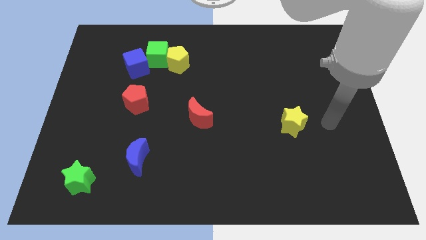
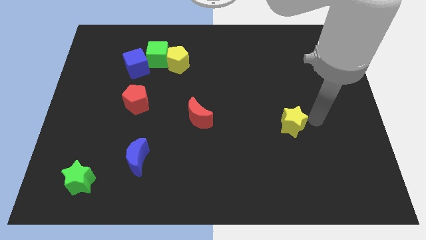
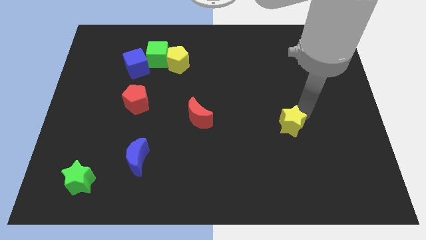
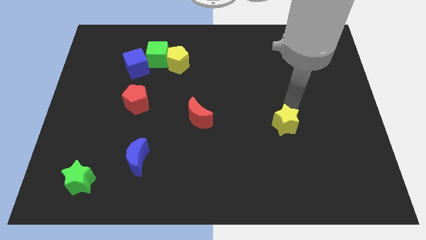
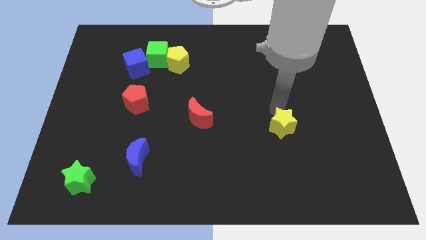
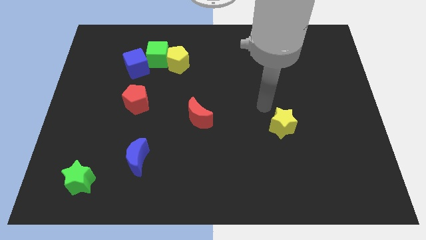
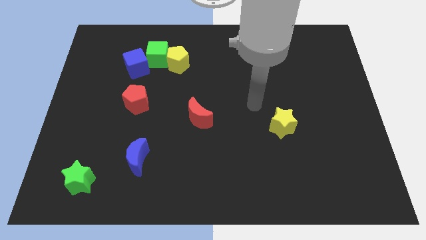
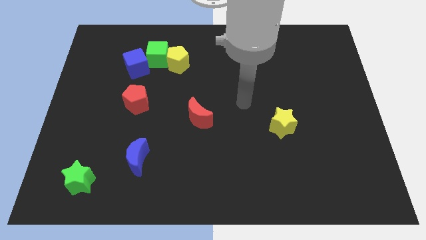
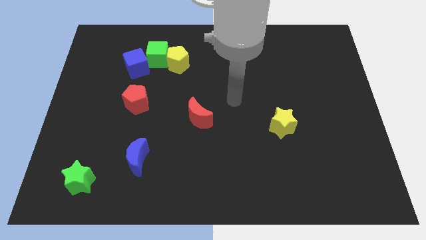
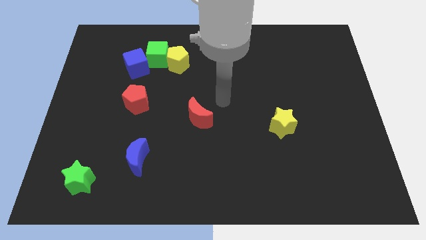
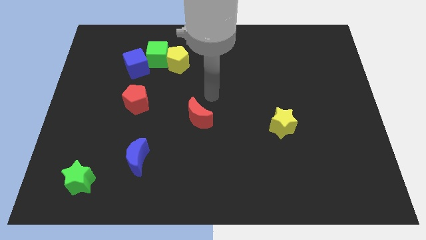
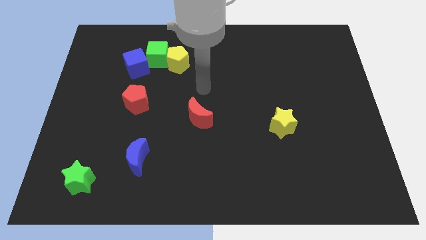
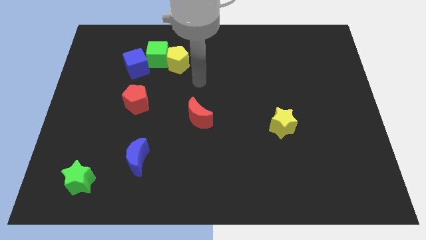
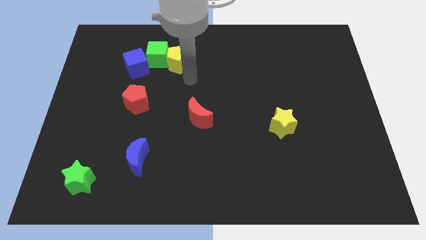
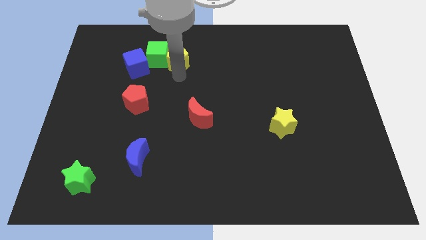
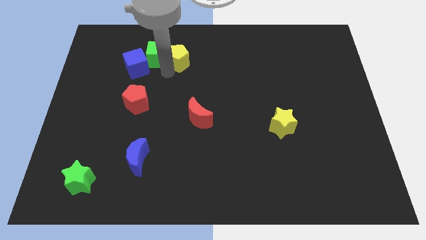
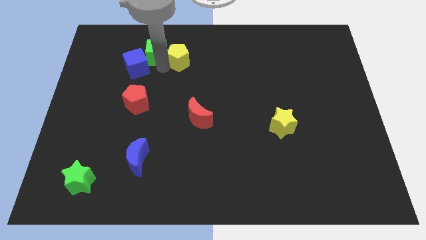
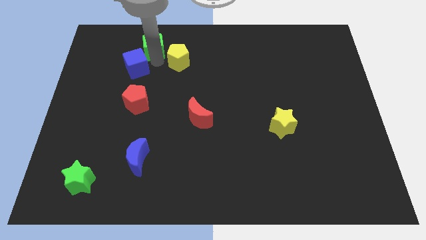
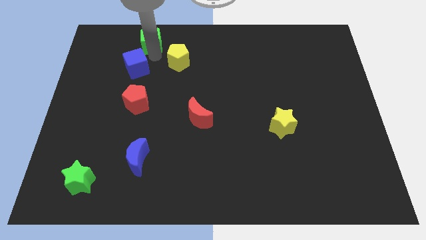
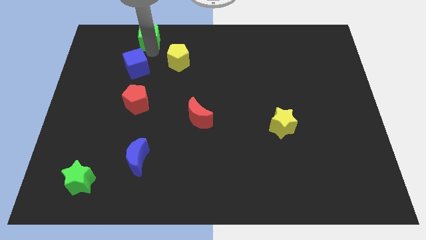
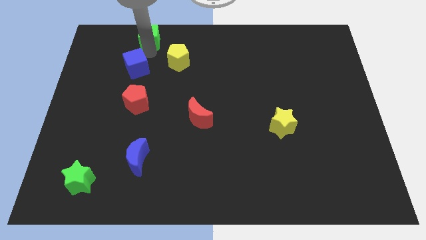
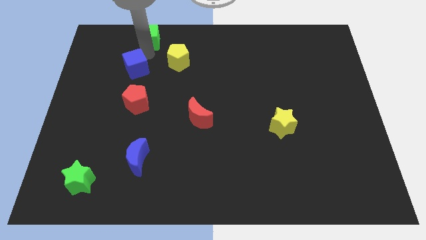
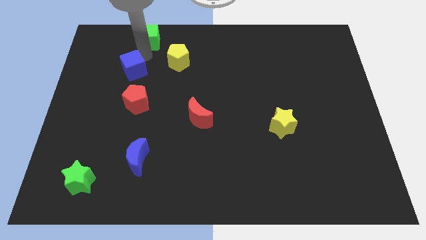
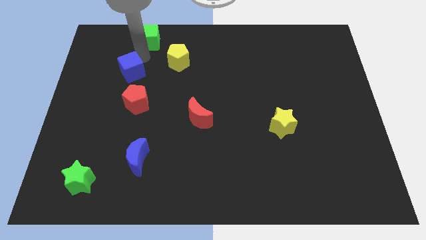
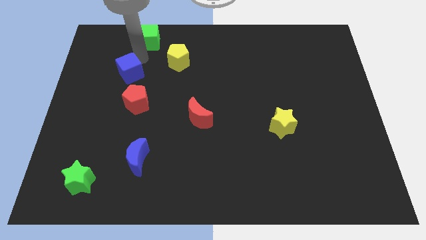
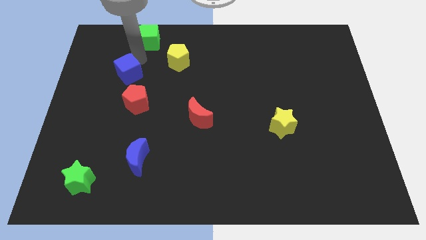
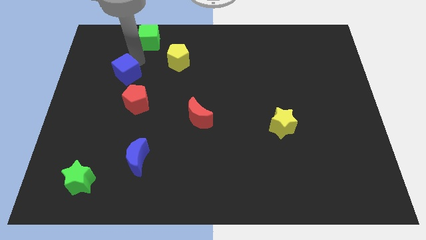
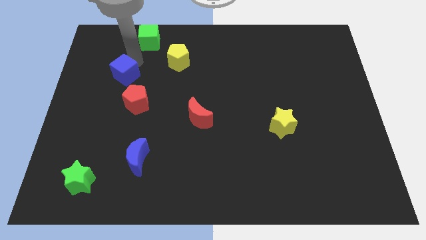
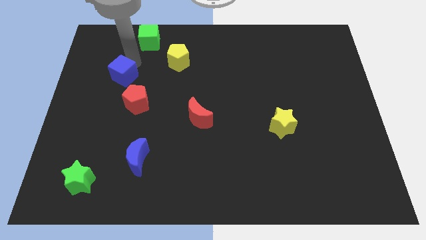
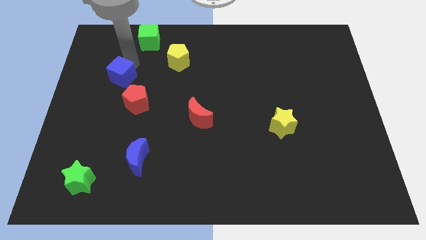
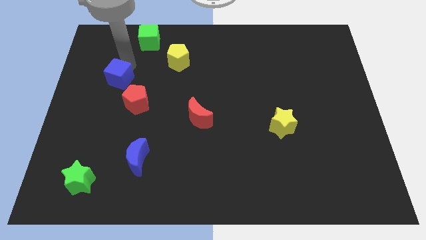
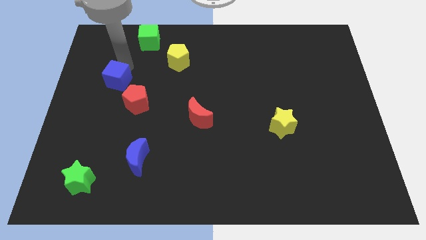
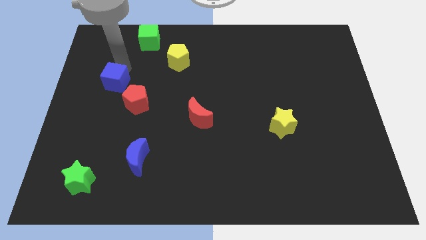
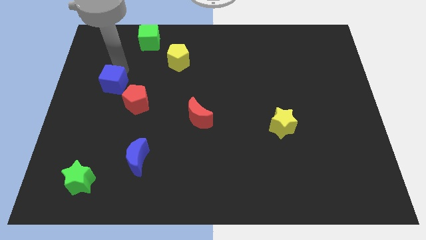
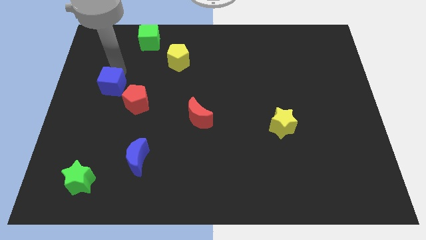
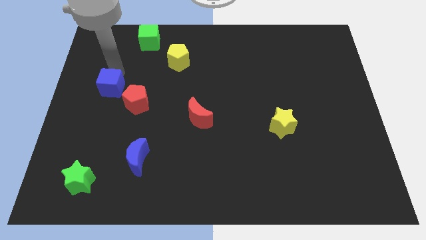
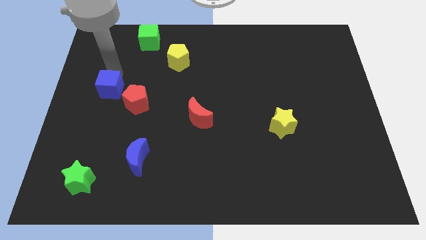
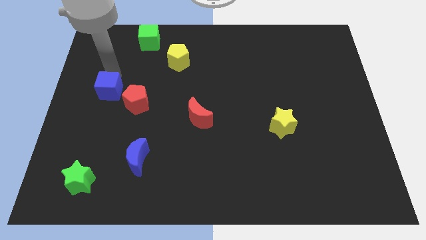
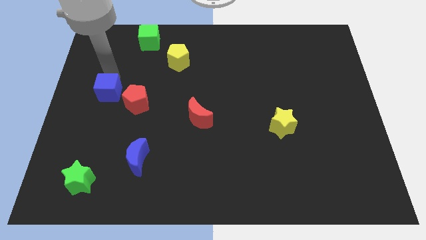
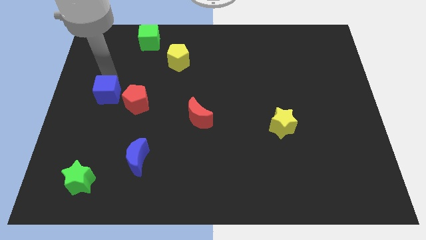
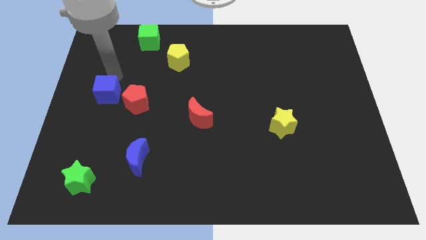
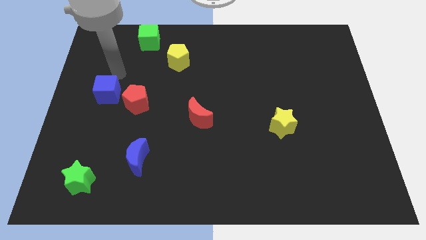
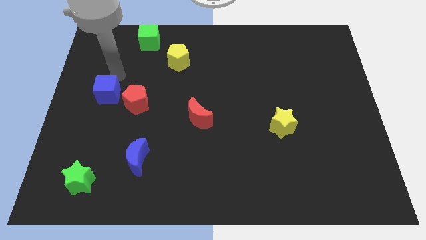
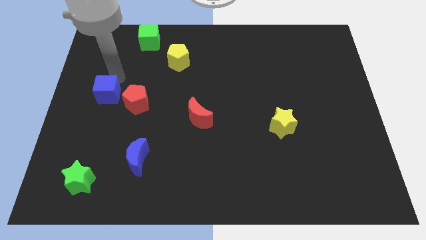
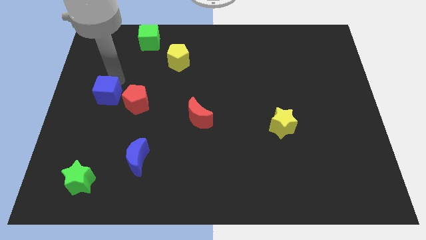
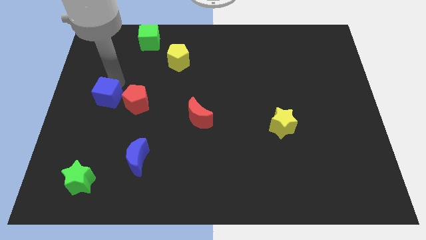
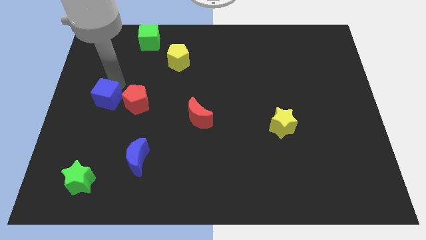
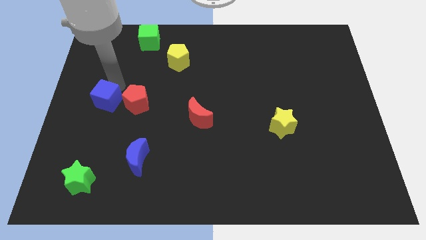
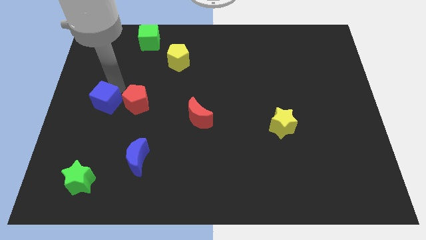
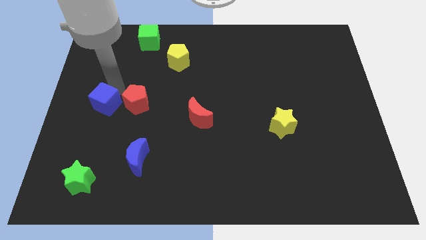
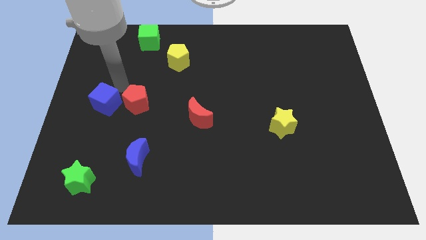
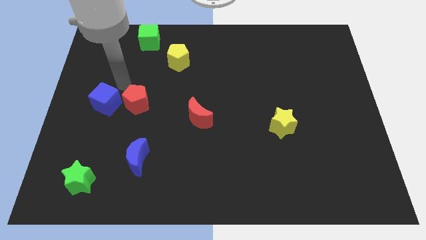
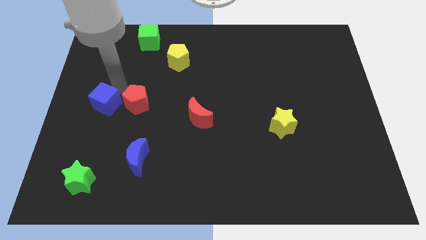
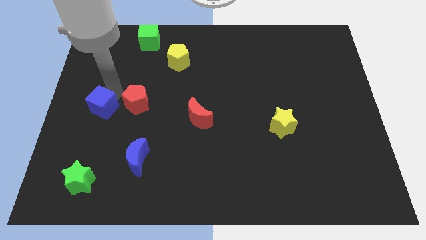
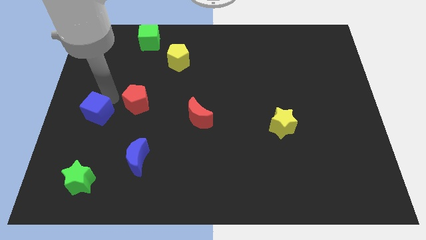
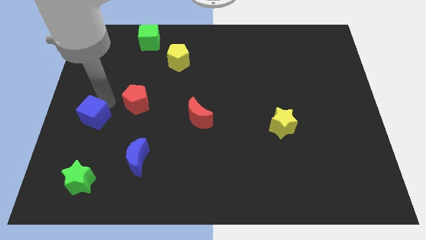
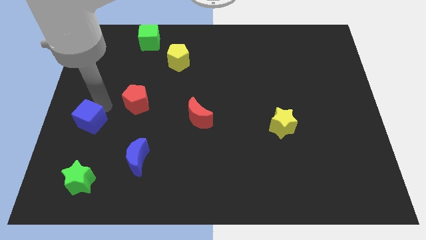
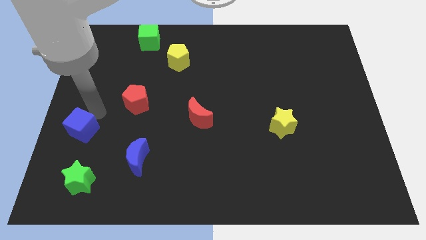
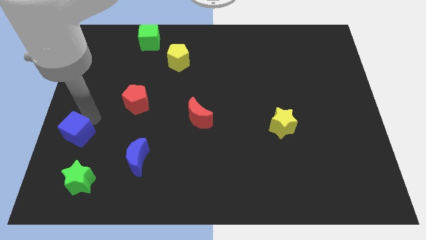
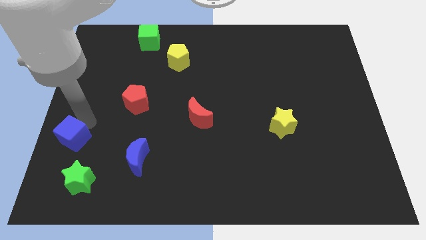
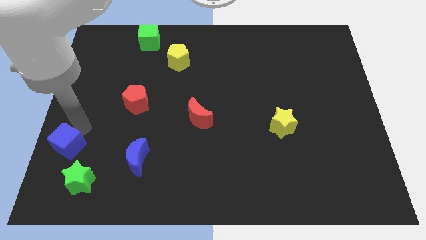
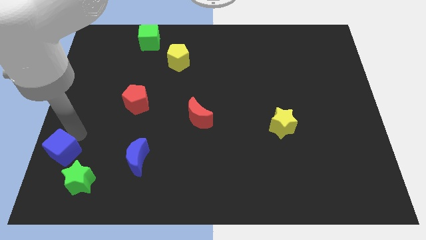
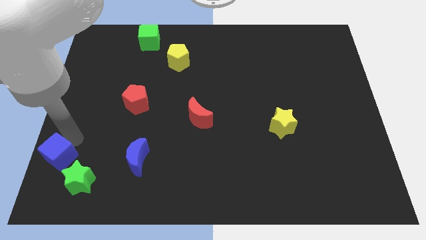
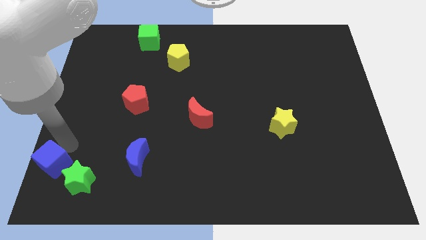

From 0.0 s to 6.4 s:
put the blue cube to the bottom left corner

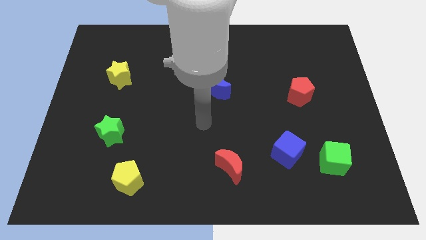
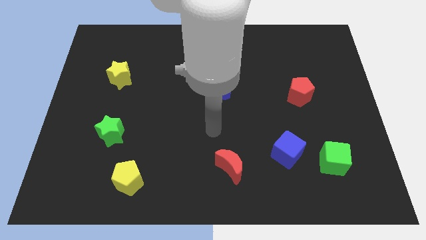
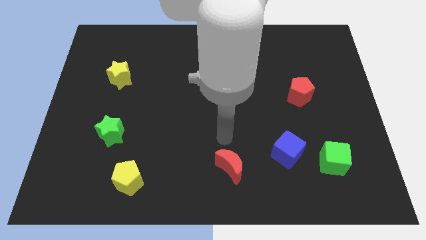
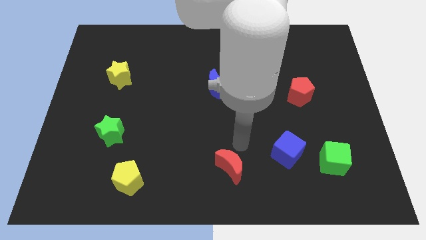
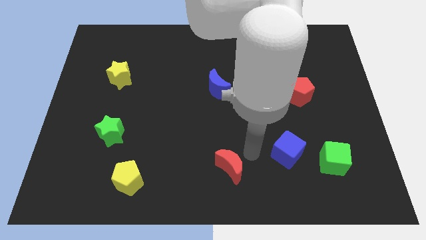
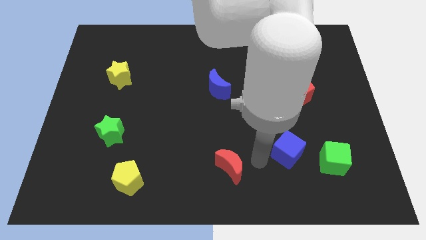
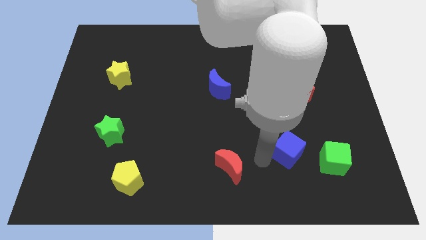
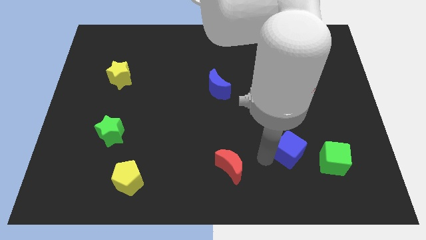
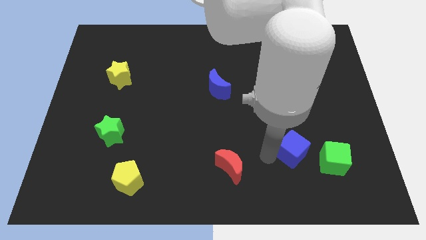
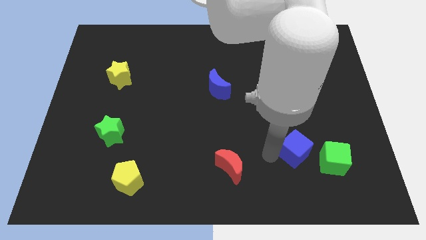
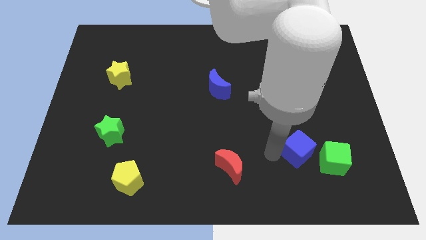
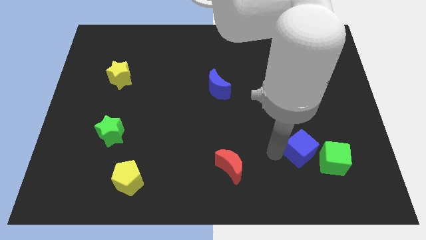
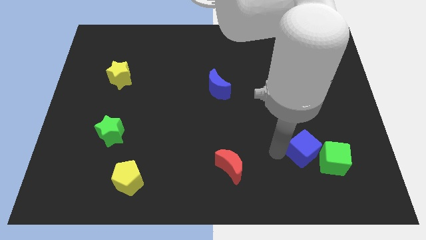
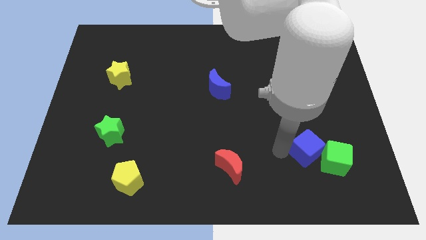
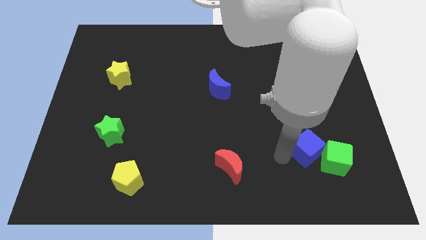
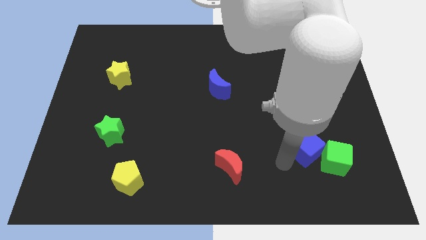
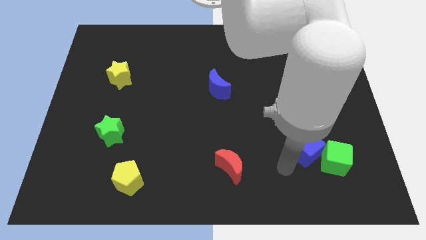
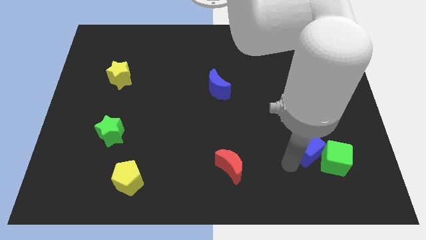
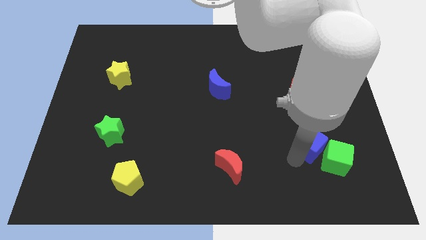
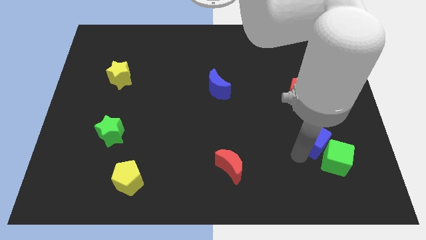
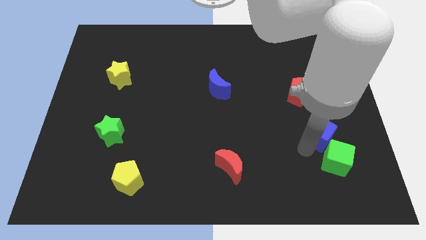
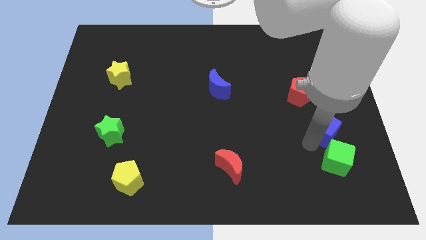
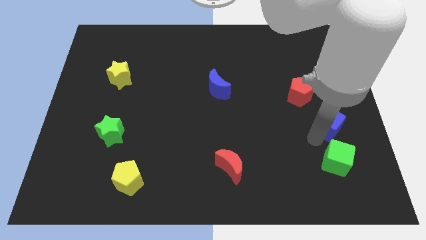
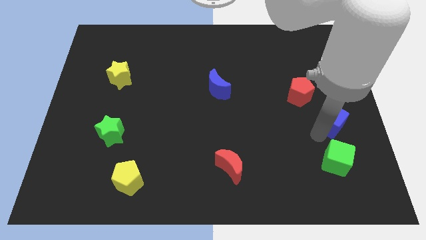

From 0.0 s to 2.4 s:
slide the blue cube to the right side
